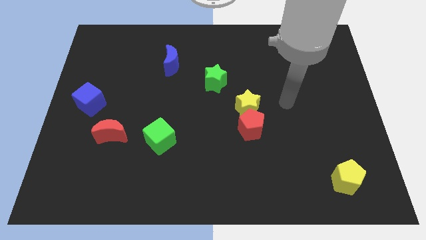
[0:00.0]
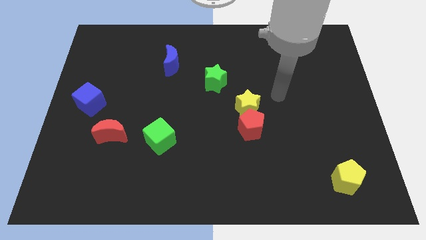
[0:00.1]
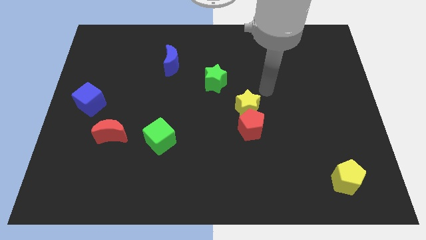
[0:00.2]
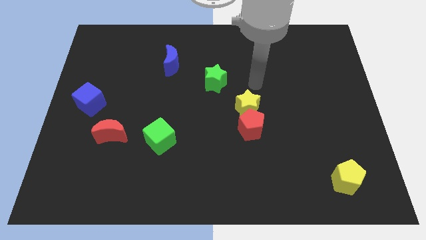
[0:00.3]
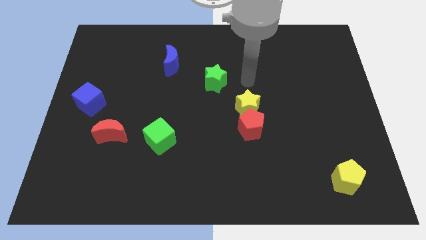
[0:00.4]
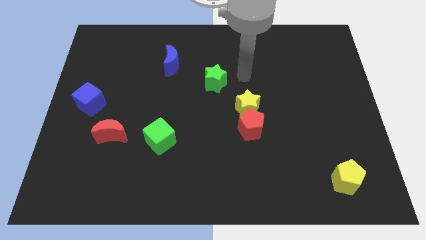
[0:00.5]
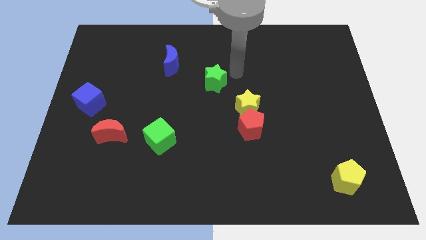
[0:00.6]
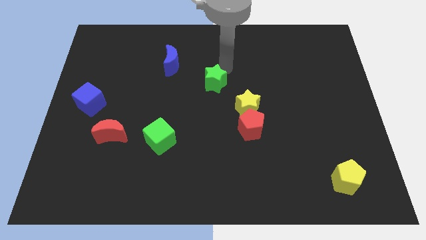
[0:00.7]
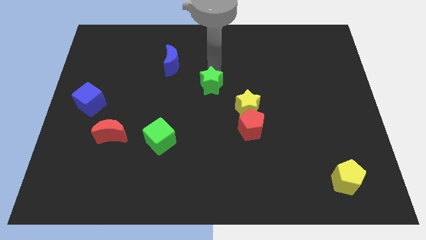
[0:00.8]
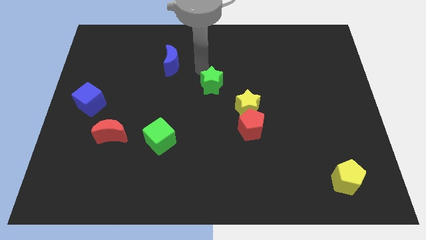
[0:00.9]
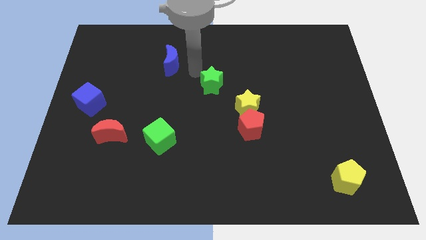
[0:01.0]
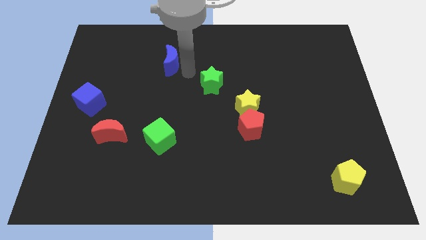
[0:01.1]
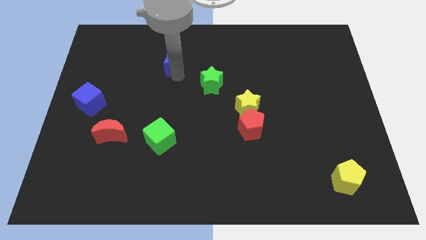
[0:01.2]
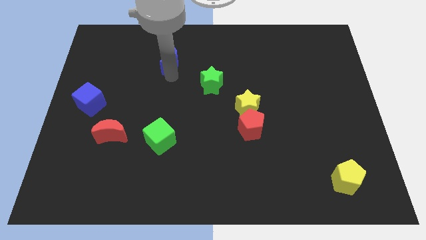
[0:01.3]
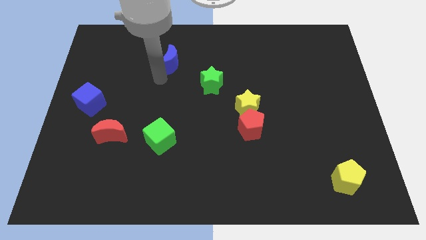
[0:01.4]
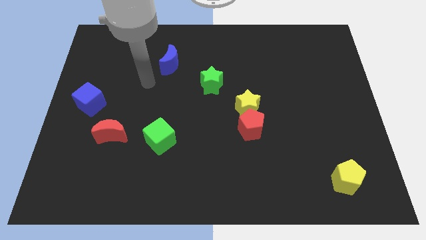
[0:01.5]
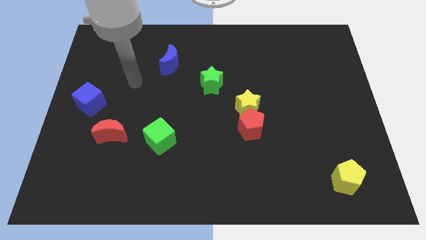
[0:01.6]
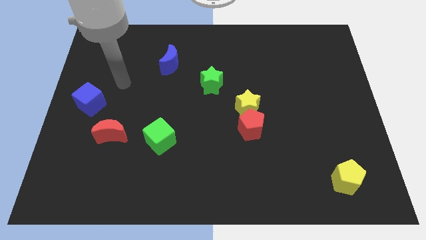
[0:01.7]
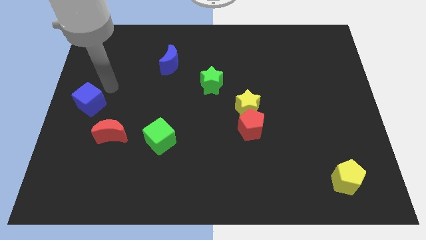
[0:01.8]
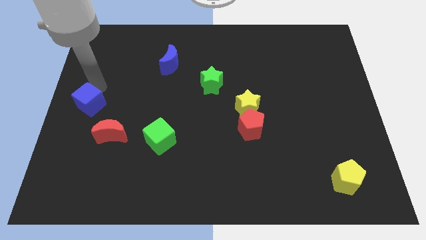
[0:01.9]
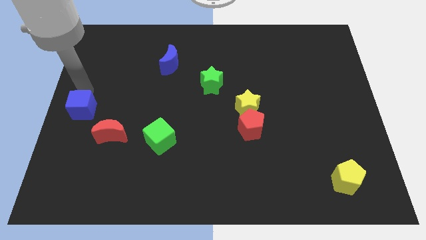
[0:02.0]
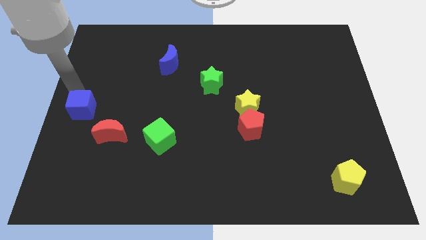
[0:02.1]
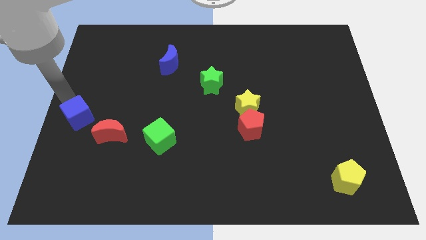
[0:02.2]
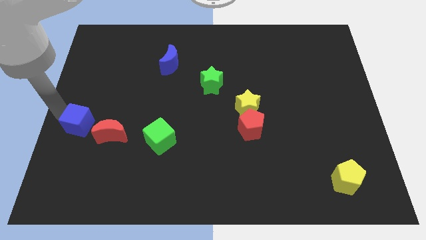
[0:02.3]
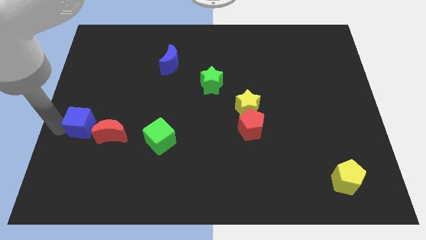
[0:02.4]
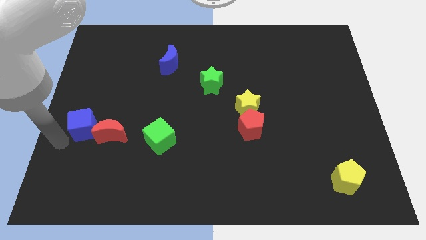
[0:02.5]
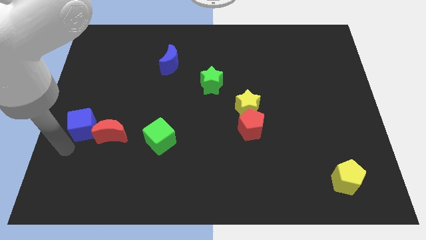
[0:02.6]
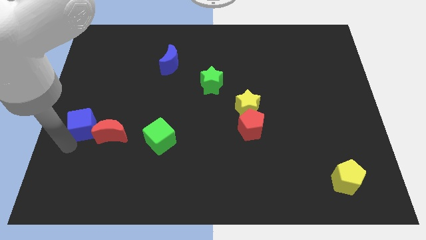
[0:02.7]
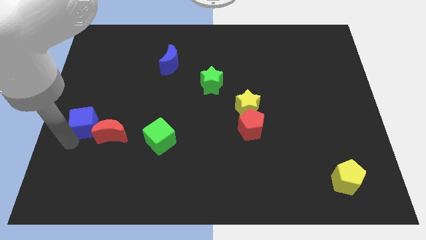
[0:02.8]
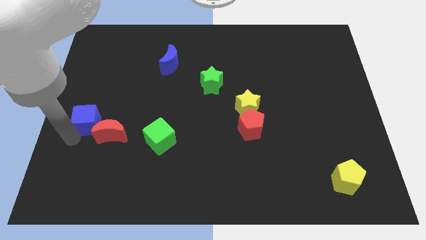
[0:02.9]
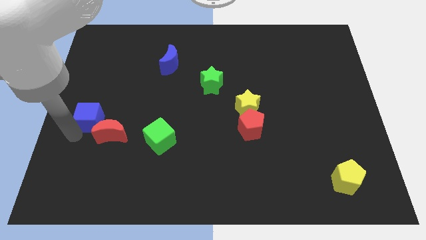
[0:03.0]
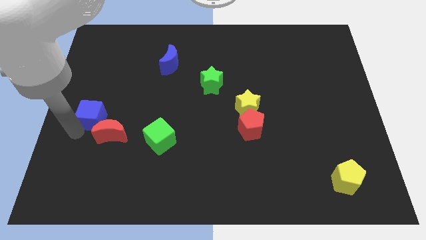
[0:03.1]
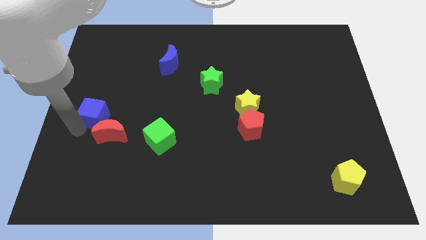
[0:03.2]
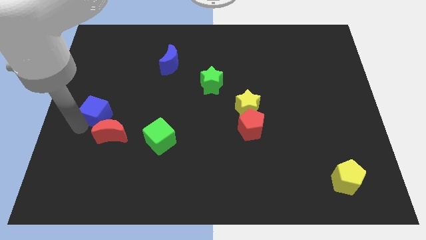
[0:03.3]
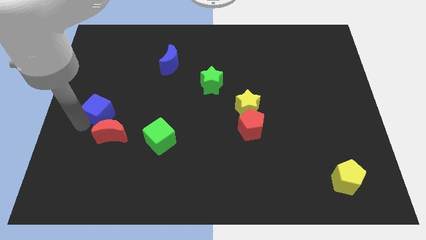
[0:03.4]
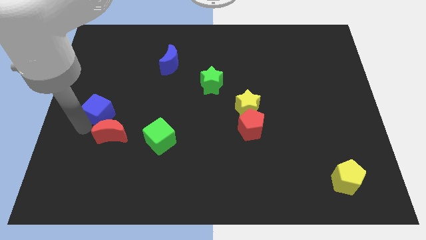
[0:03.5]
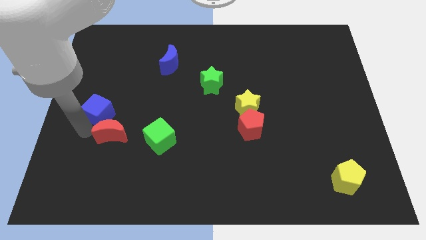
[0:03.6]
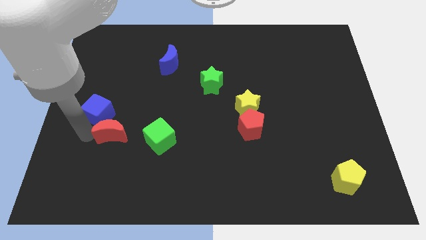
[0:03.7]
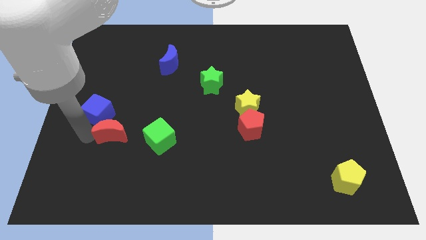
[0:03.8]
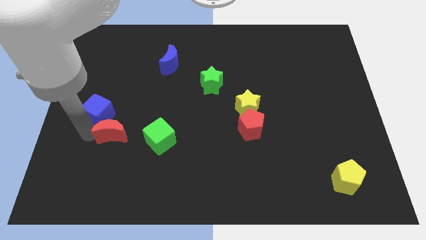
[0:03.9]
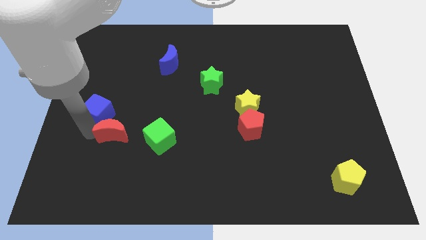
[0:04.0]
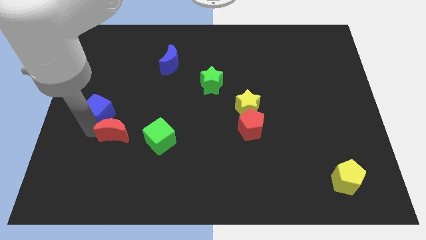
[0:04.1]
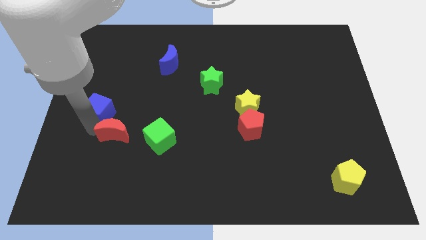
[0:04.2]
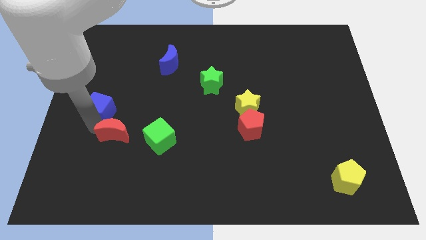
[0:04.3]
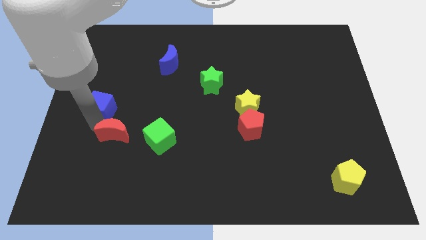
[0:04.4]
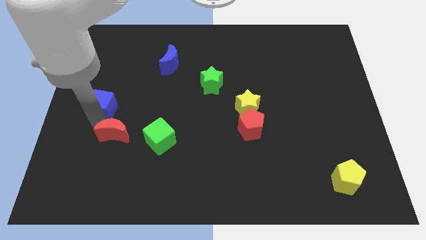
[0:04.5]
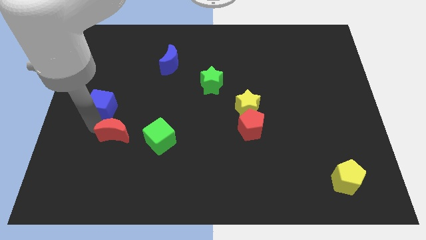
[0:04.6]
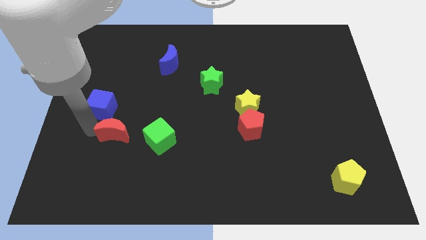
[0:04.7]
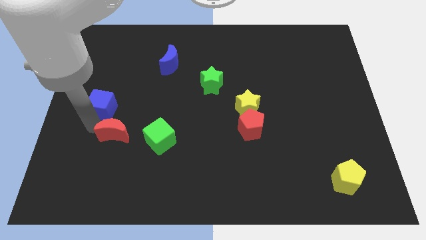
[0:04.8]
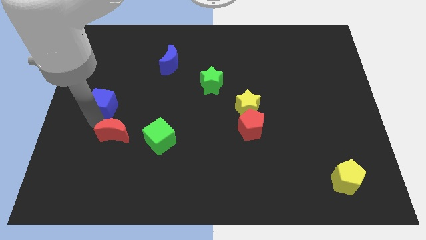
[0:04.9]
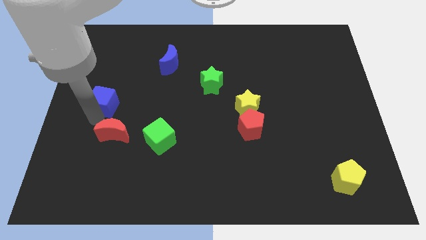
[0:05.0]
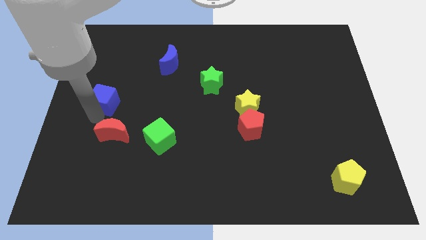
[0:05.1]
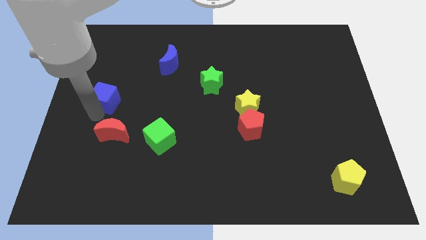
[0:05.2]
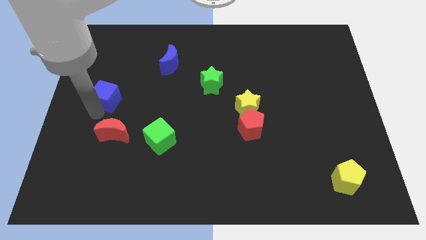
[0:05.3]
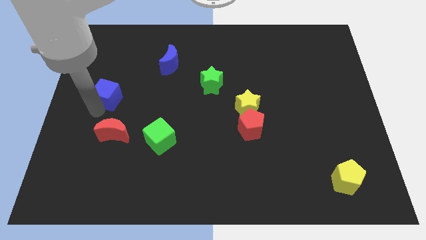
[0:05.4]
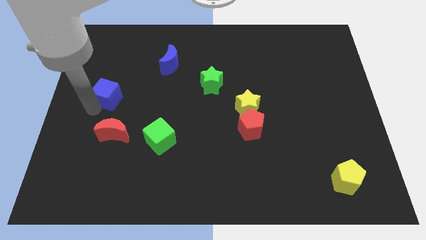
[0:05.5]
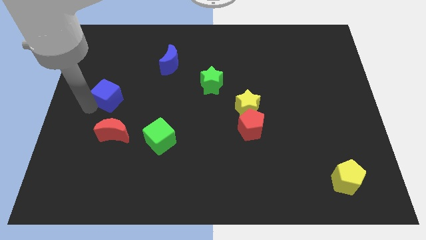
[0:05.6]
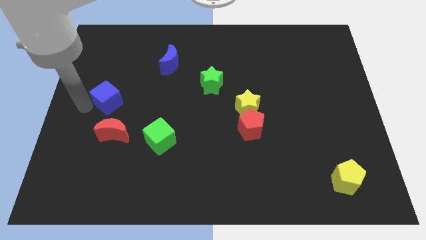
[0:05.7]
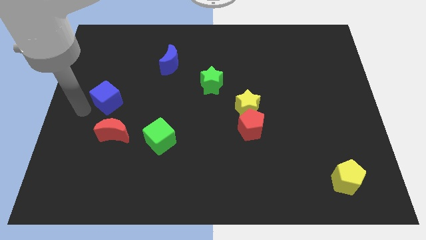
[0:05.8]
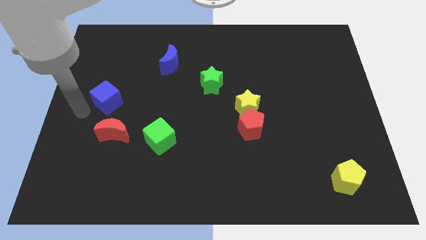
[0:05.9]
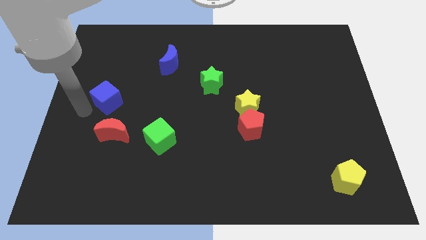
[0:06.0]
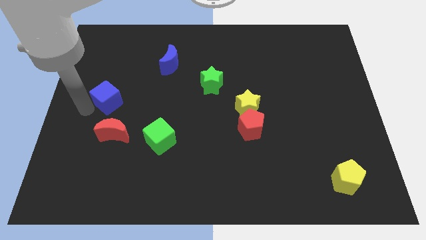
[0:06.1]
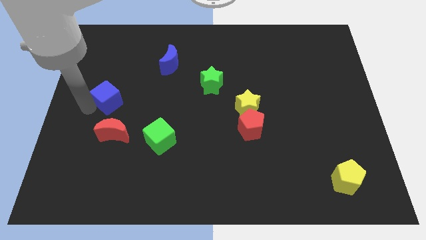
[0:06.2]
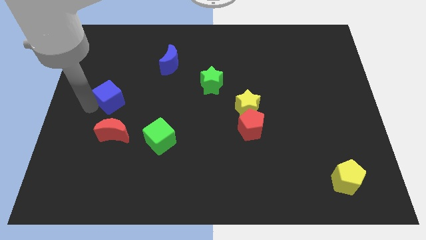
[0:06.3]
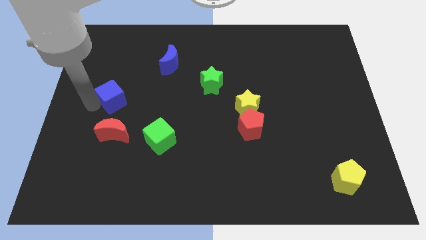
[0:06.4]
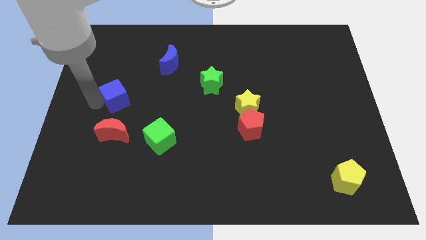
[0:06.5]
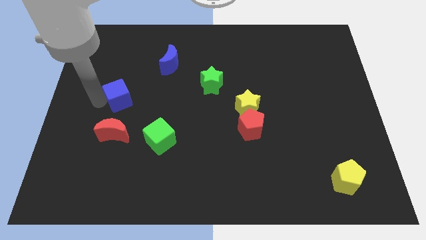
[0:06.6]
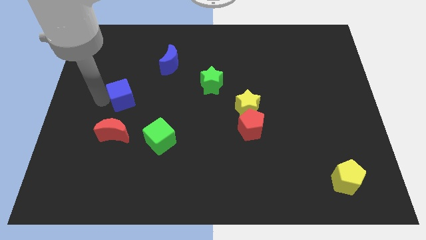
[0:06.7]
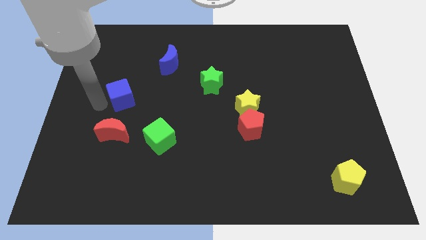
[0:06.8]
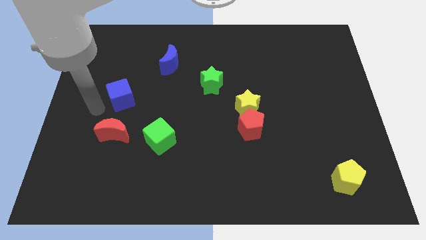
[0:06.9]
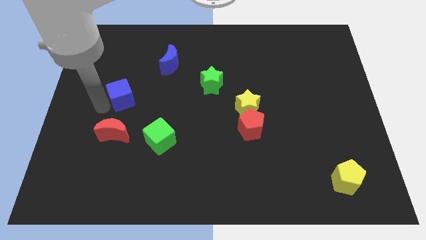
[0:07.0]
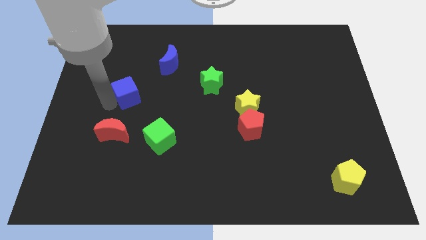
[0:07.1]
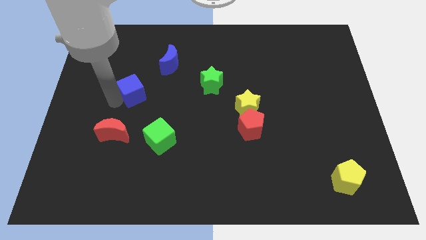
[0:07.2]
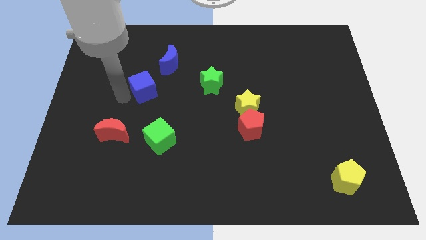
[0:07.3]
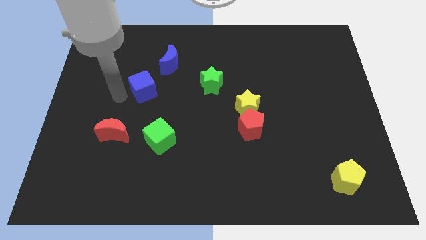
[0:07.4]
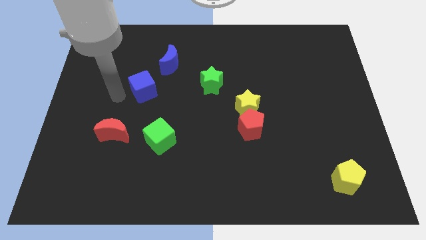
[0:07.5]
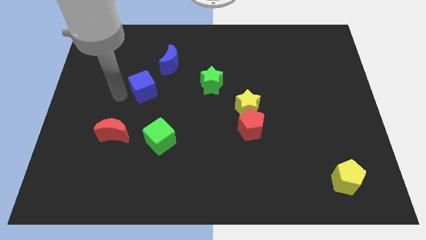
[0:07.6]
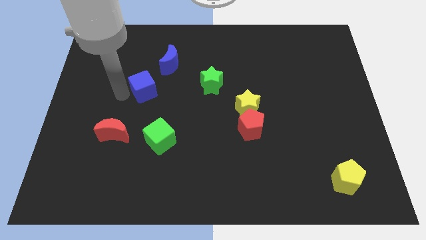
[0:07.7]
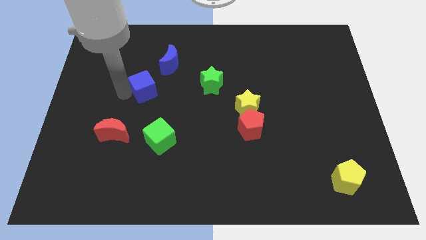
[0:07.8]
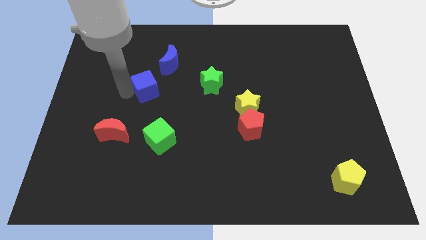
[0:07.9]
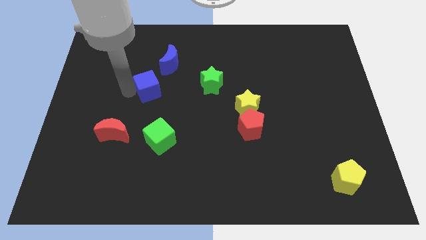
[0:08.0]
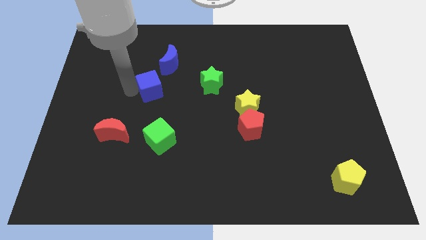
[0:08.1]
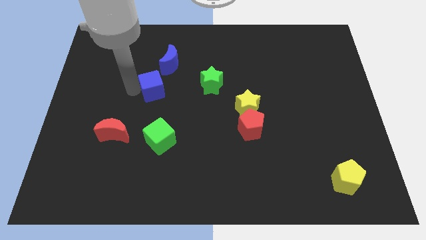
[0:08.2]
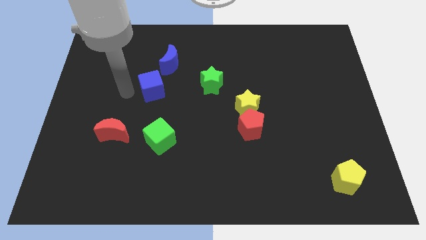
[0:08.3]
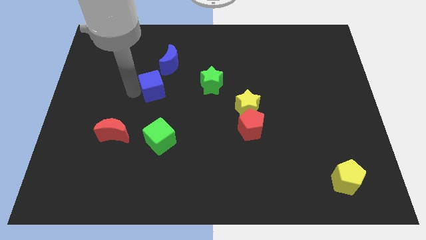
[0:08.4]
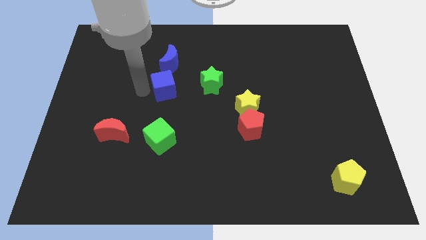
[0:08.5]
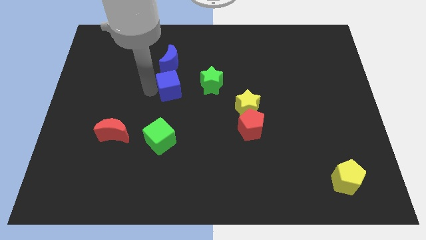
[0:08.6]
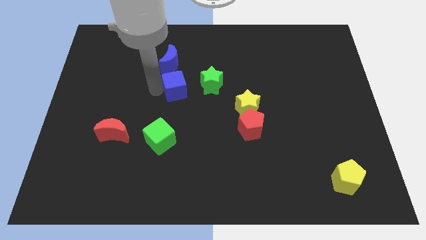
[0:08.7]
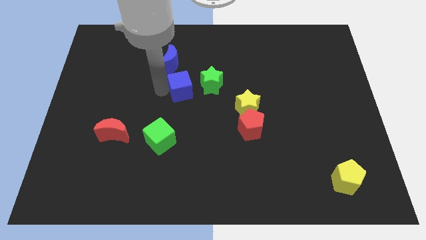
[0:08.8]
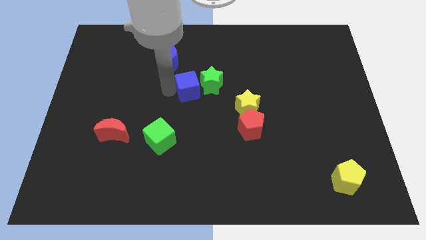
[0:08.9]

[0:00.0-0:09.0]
slide the blue cube next to the green star
